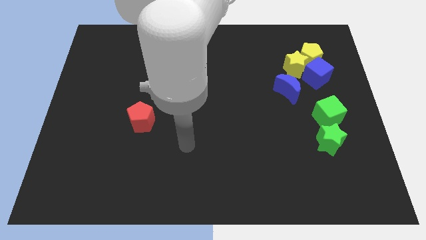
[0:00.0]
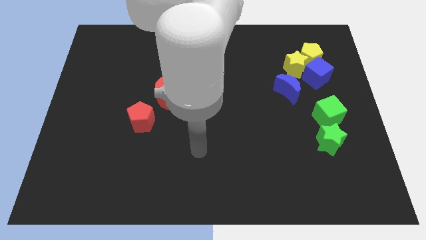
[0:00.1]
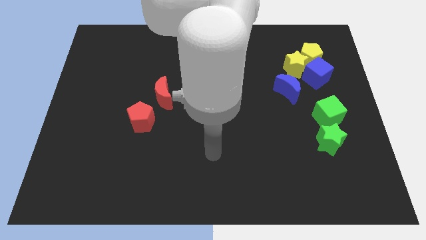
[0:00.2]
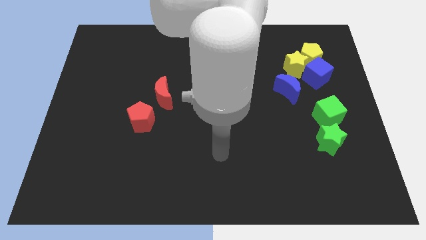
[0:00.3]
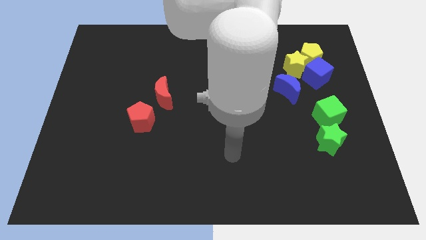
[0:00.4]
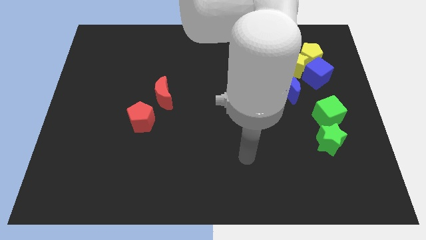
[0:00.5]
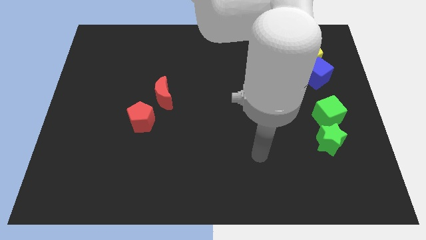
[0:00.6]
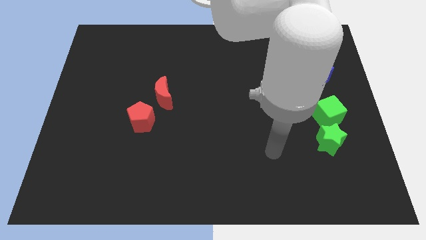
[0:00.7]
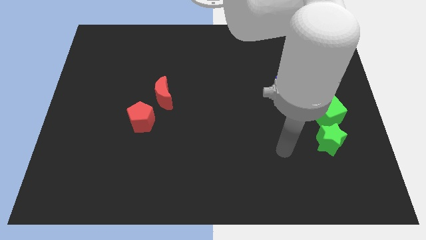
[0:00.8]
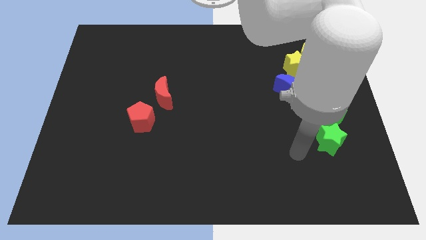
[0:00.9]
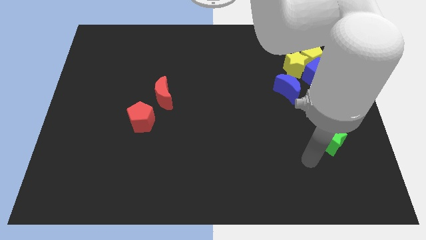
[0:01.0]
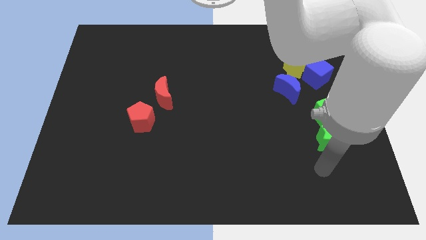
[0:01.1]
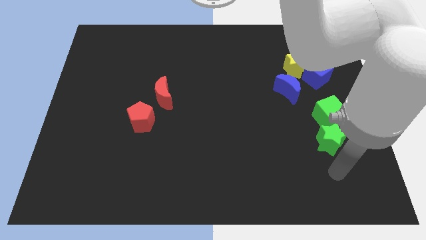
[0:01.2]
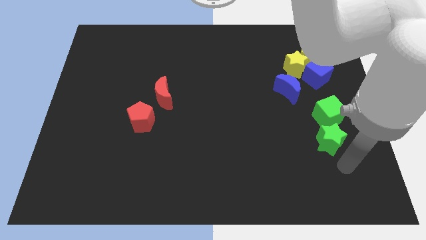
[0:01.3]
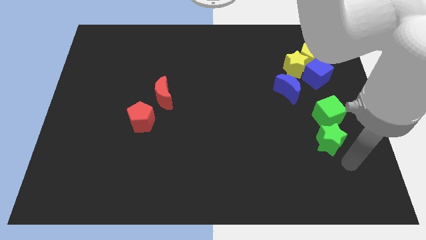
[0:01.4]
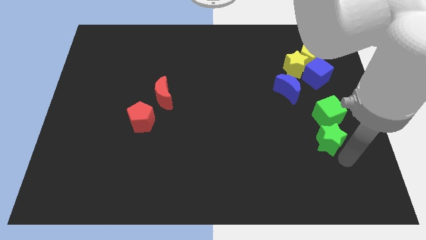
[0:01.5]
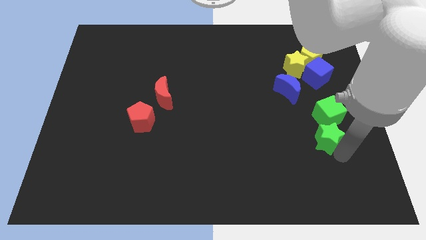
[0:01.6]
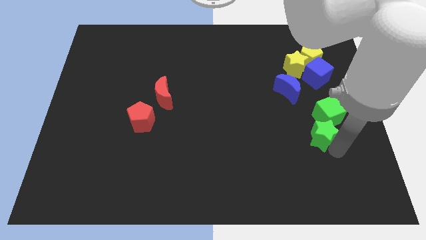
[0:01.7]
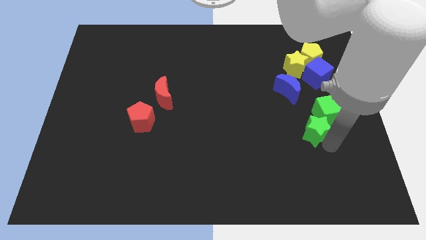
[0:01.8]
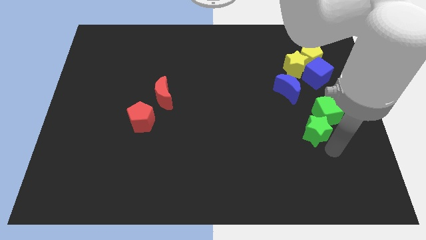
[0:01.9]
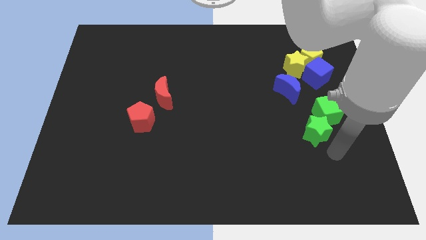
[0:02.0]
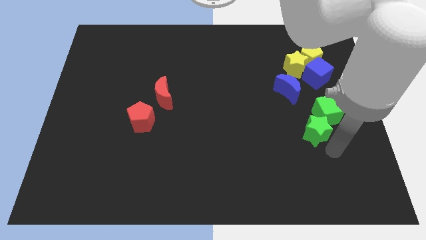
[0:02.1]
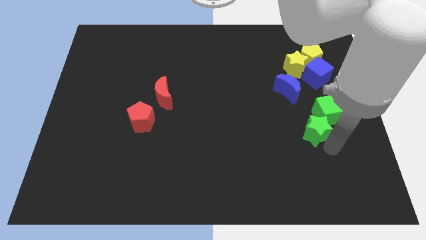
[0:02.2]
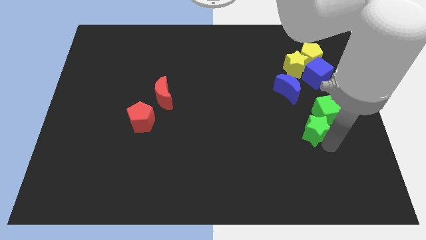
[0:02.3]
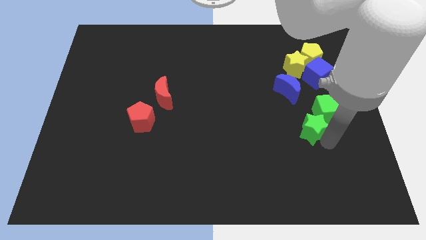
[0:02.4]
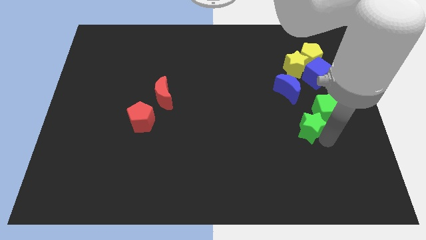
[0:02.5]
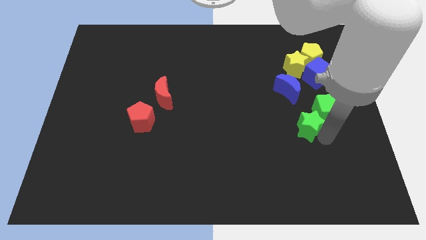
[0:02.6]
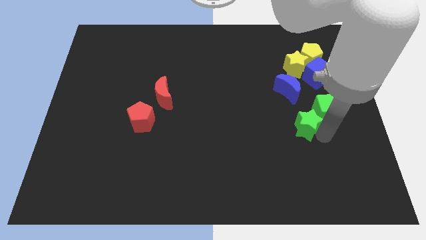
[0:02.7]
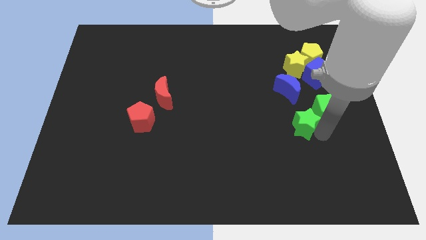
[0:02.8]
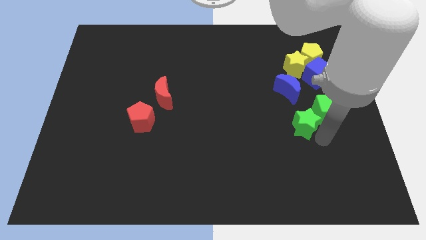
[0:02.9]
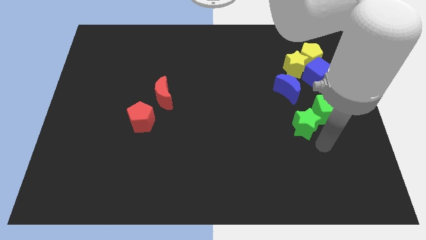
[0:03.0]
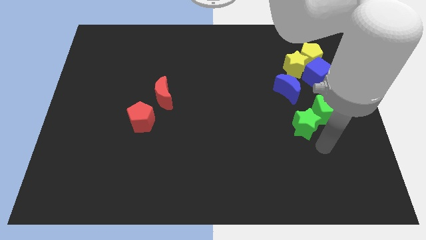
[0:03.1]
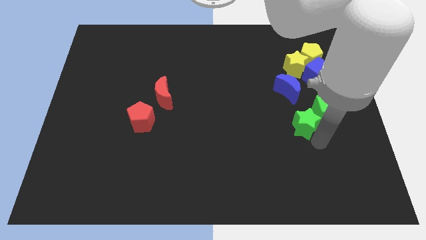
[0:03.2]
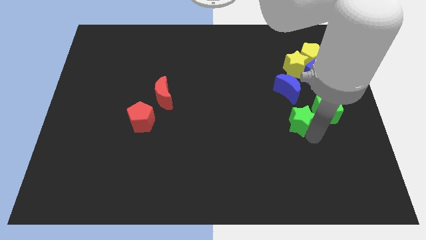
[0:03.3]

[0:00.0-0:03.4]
push the green star a little diagonally upwards and left

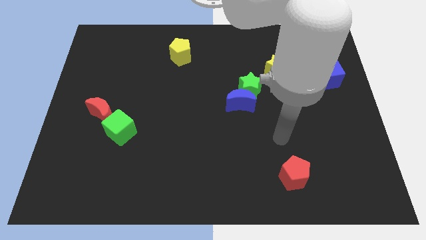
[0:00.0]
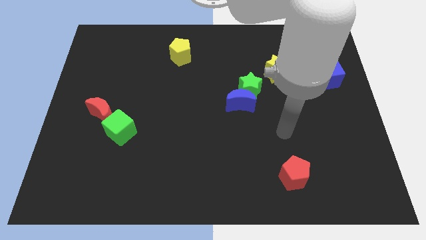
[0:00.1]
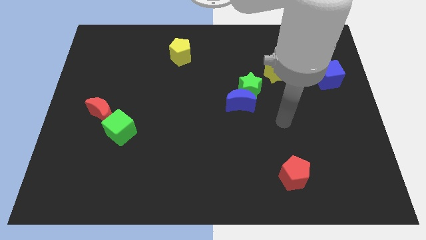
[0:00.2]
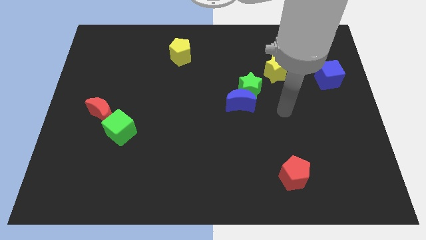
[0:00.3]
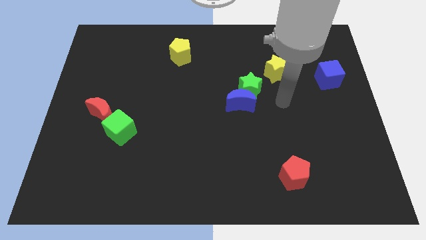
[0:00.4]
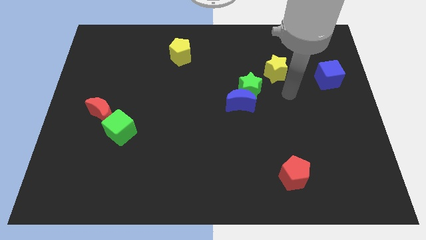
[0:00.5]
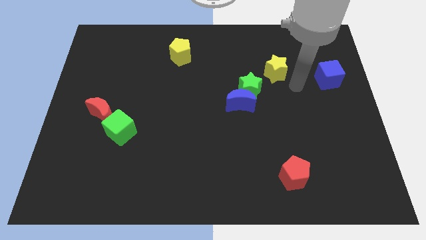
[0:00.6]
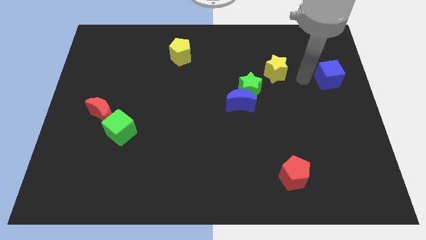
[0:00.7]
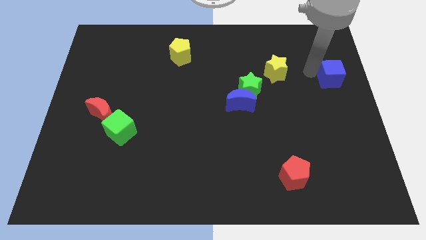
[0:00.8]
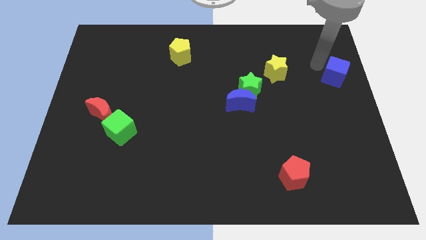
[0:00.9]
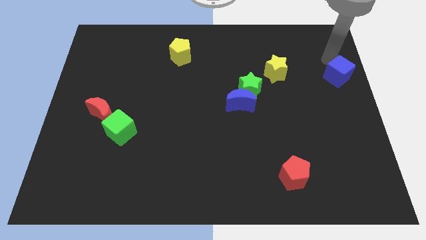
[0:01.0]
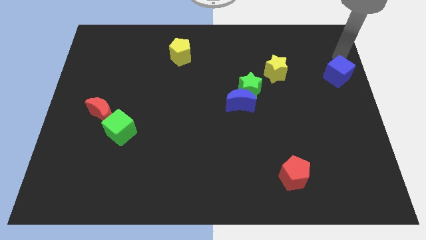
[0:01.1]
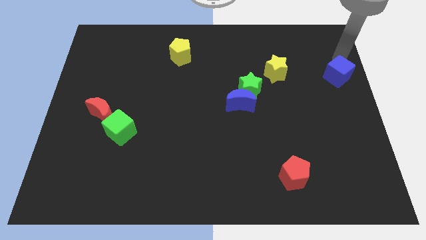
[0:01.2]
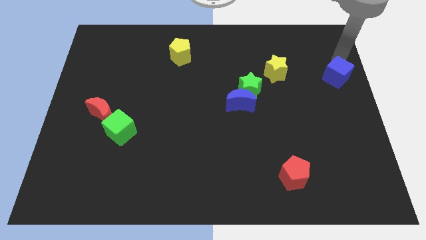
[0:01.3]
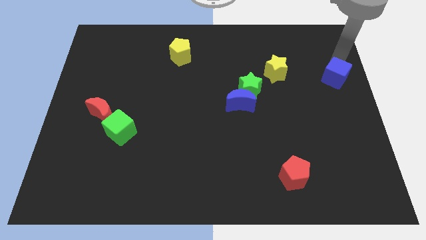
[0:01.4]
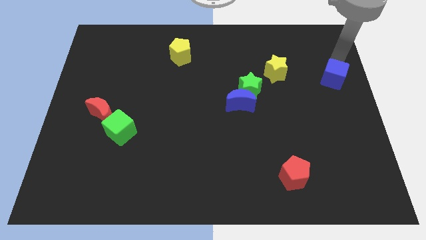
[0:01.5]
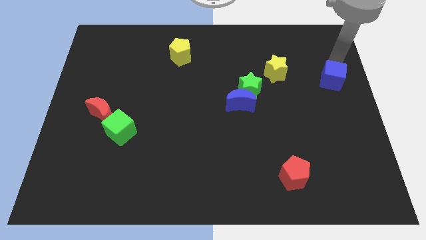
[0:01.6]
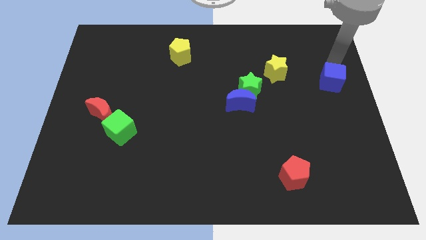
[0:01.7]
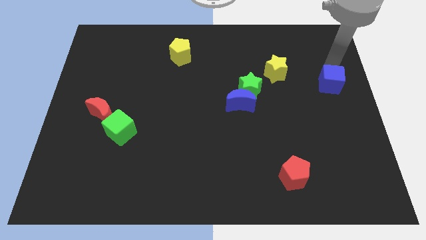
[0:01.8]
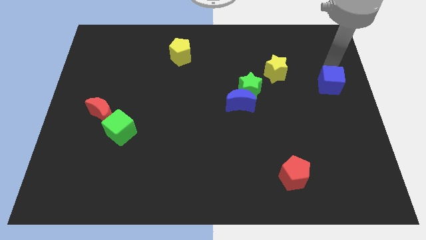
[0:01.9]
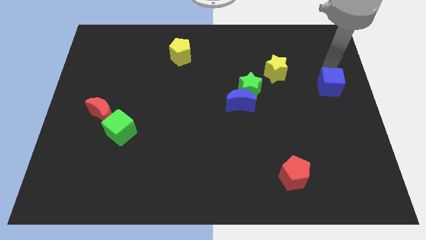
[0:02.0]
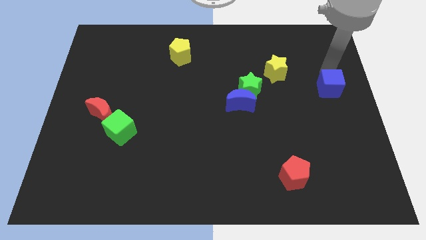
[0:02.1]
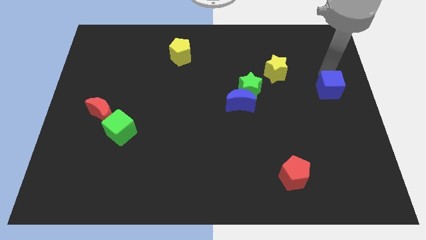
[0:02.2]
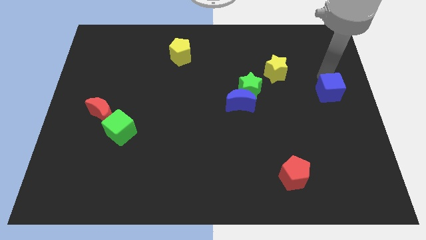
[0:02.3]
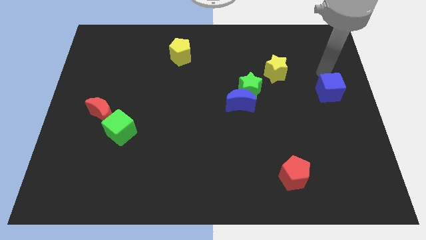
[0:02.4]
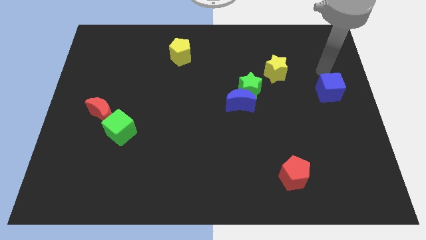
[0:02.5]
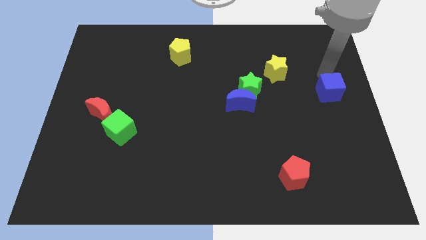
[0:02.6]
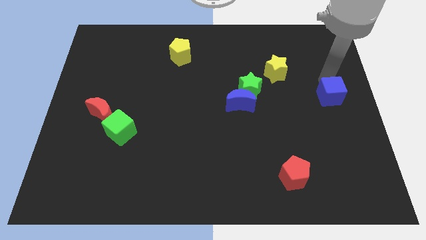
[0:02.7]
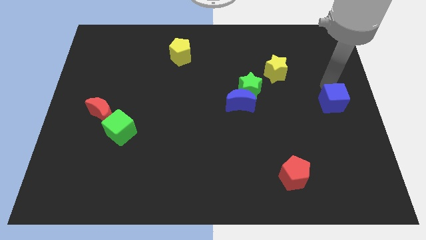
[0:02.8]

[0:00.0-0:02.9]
move the blue cube downwards a bit

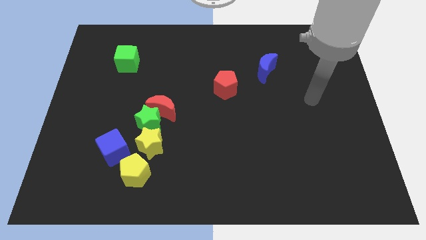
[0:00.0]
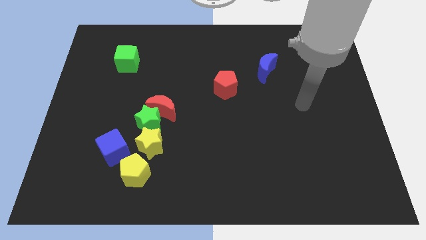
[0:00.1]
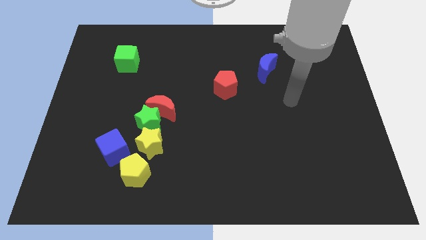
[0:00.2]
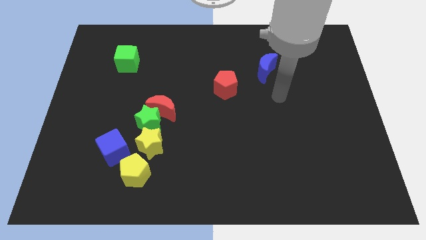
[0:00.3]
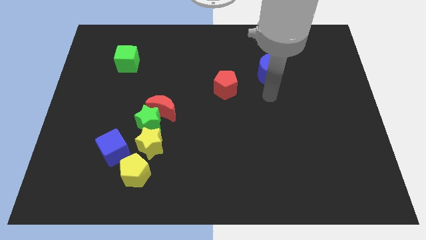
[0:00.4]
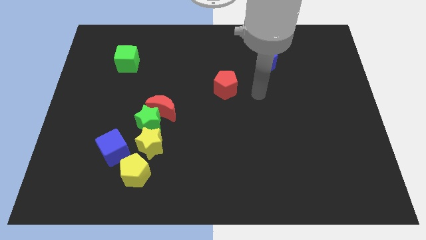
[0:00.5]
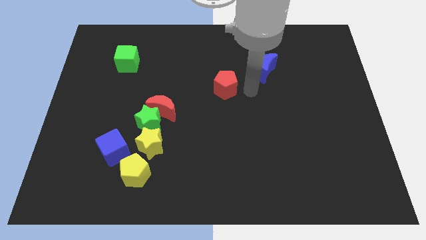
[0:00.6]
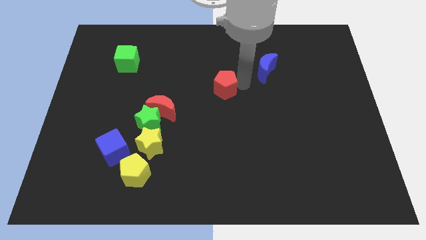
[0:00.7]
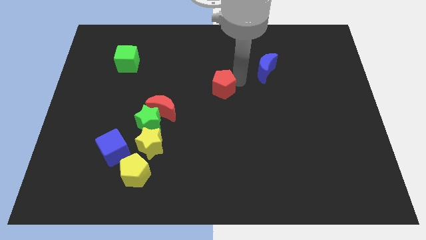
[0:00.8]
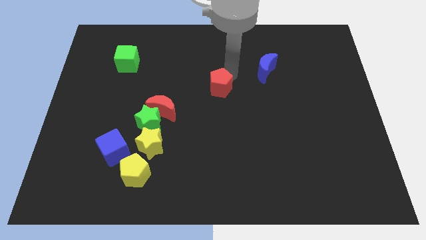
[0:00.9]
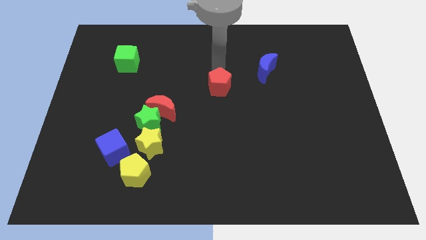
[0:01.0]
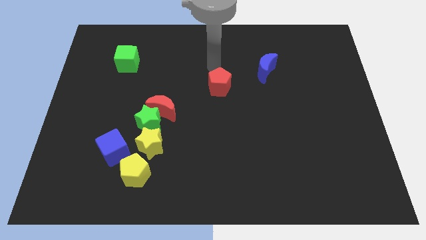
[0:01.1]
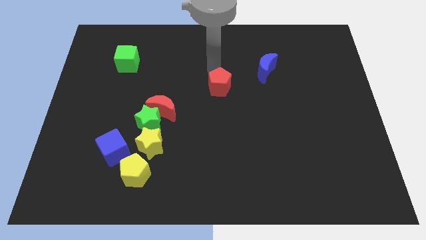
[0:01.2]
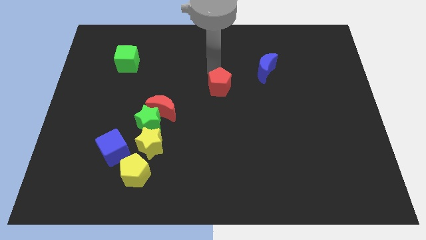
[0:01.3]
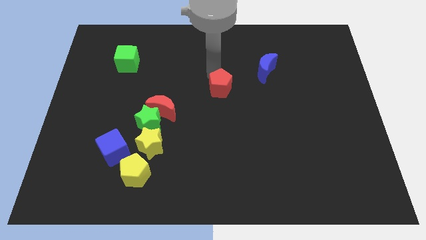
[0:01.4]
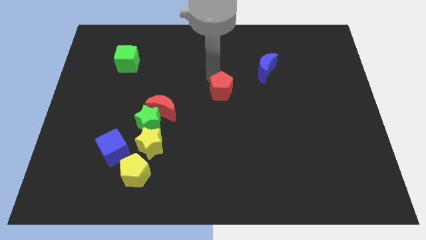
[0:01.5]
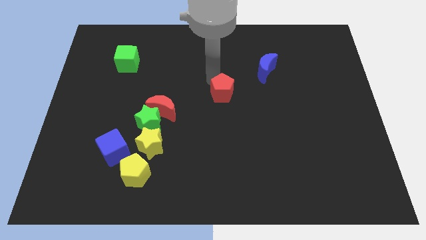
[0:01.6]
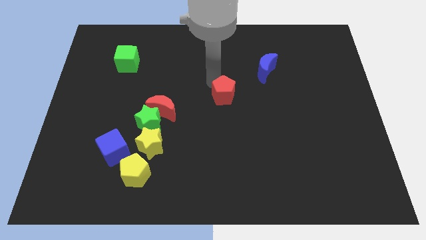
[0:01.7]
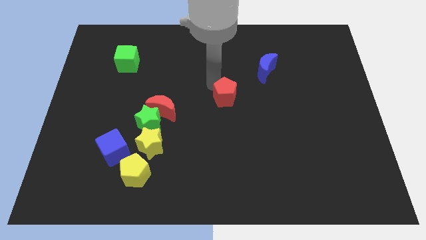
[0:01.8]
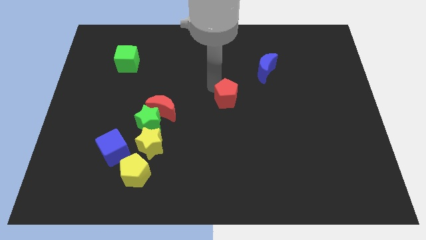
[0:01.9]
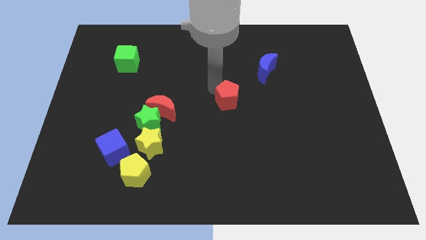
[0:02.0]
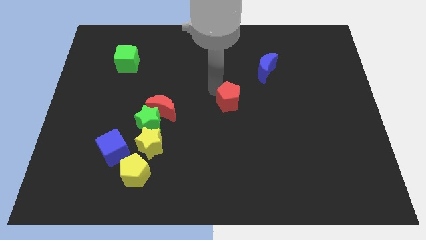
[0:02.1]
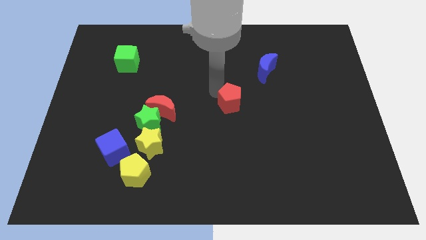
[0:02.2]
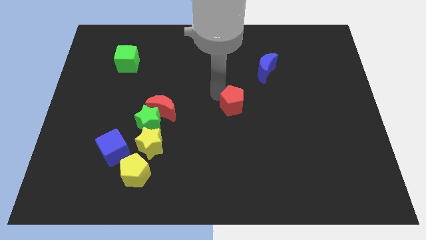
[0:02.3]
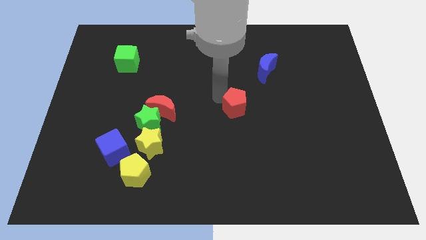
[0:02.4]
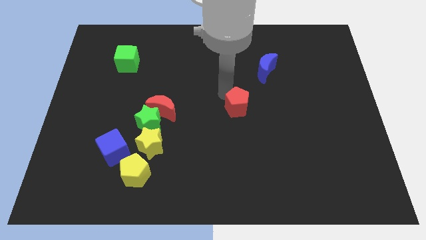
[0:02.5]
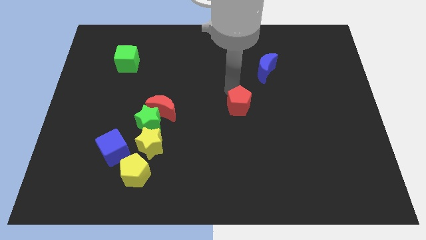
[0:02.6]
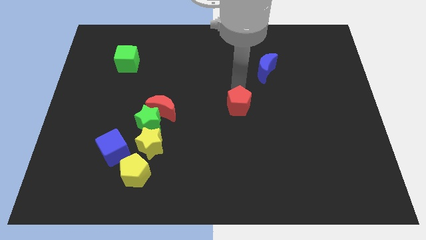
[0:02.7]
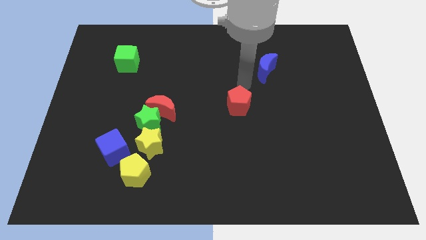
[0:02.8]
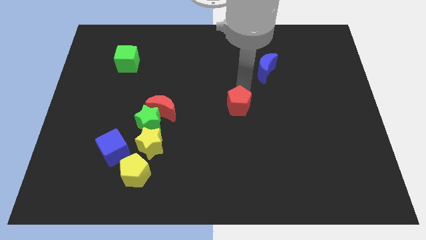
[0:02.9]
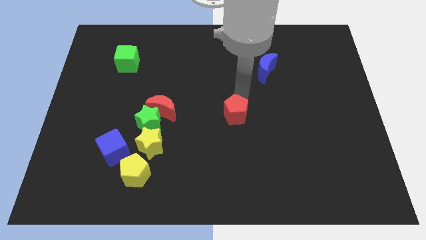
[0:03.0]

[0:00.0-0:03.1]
move the red pentagon slightly downwards
